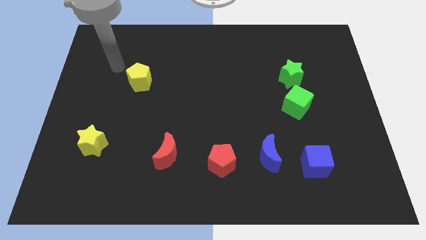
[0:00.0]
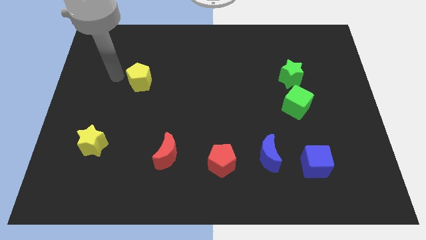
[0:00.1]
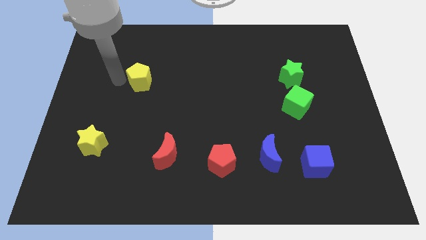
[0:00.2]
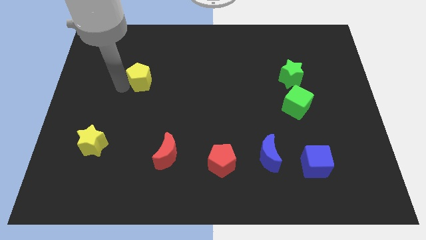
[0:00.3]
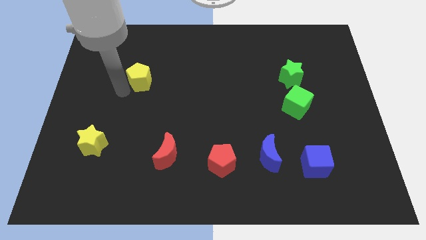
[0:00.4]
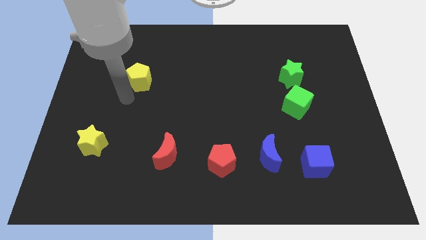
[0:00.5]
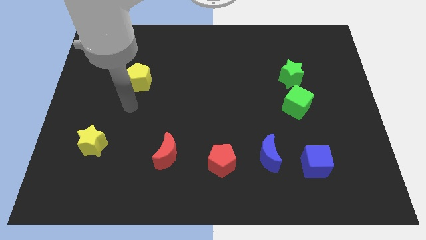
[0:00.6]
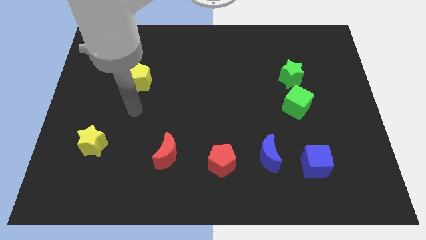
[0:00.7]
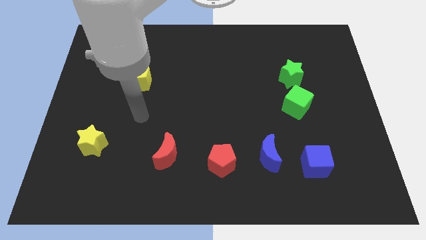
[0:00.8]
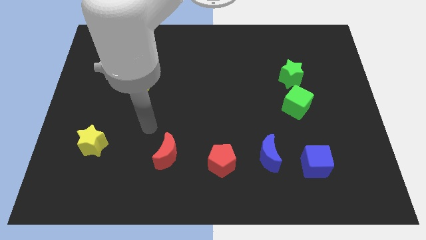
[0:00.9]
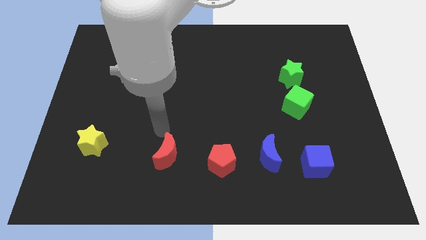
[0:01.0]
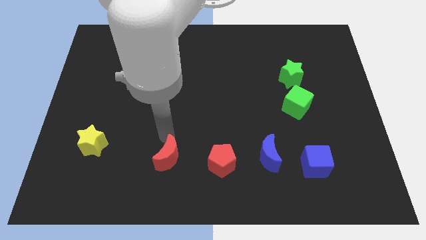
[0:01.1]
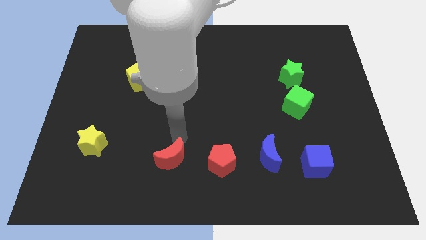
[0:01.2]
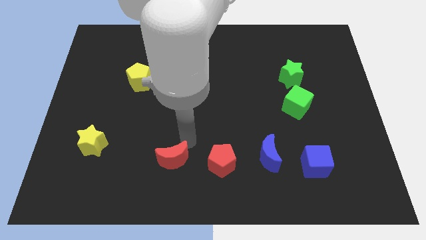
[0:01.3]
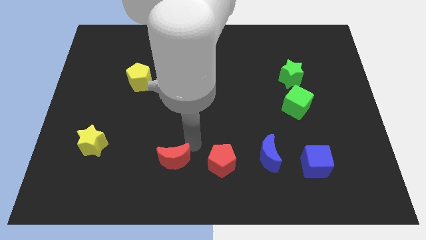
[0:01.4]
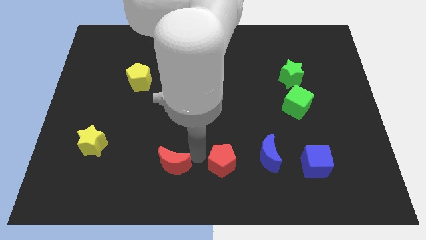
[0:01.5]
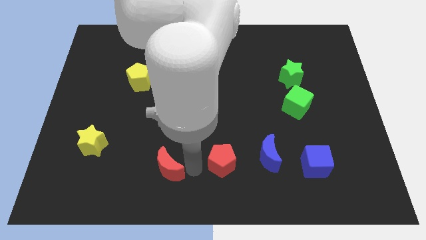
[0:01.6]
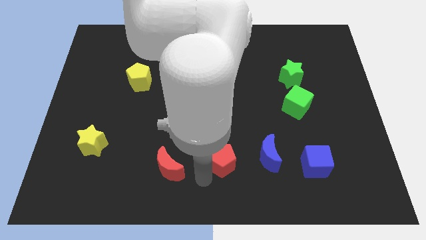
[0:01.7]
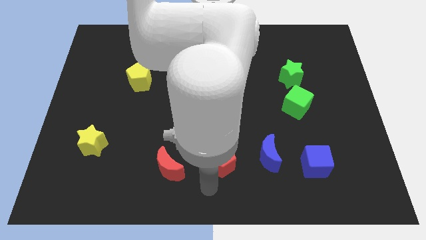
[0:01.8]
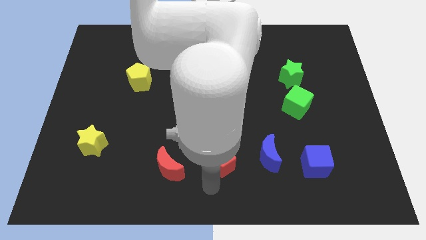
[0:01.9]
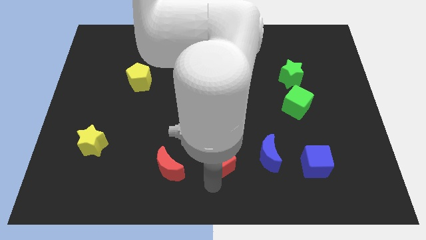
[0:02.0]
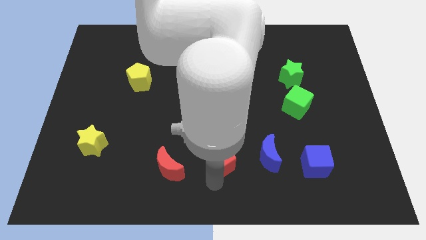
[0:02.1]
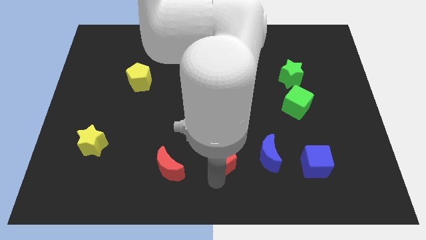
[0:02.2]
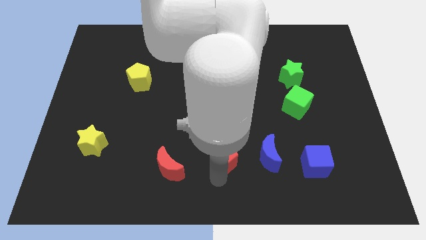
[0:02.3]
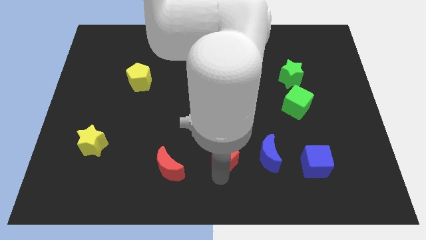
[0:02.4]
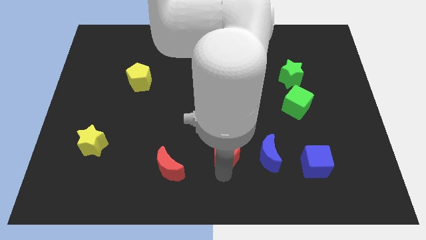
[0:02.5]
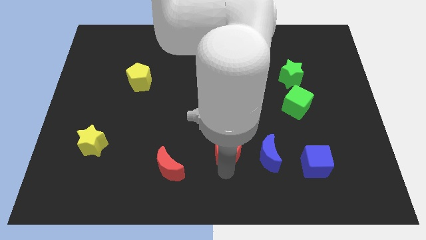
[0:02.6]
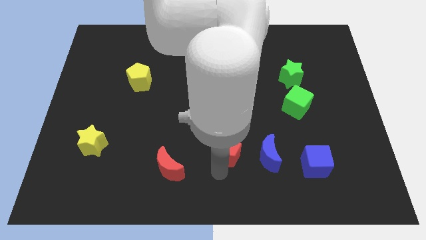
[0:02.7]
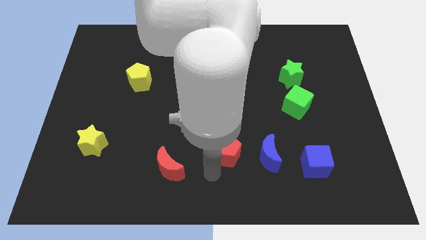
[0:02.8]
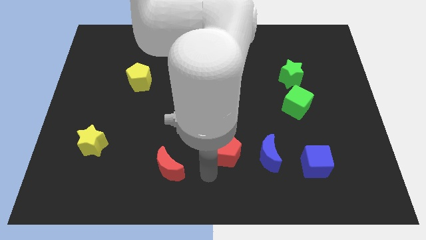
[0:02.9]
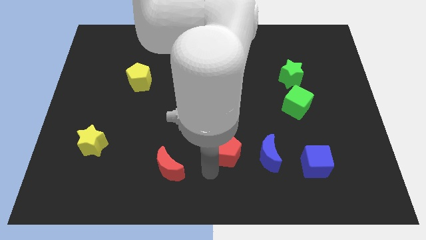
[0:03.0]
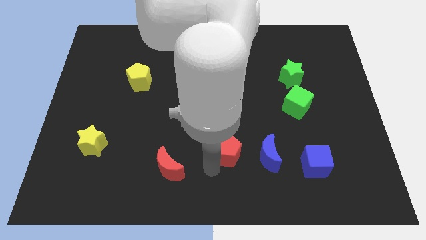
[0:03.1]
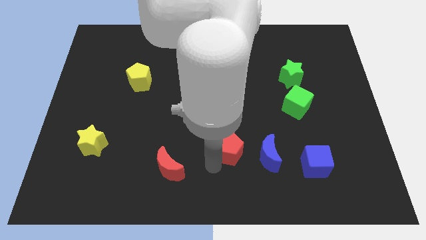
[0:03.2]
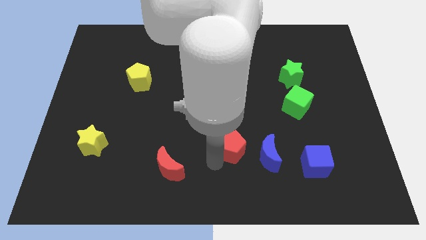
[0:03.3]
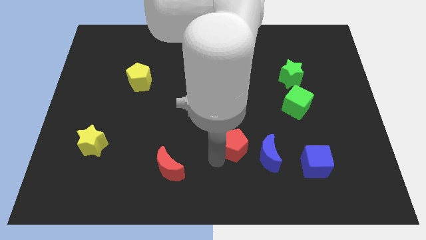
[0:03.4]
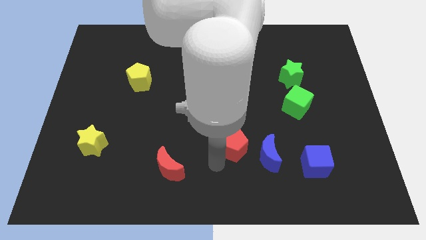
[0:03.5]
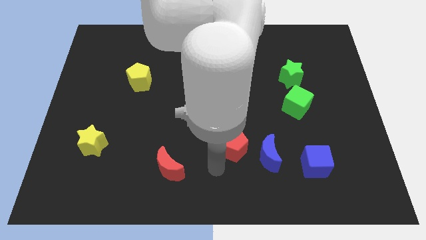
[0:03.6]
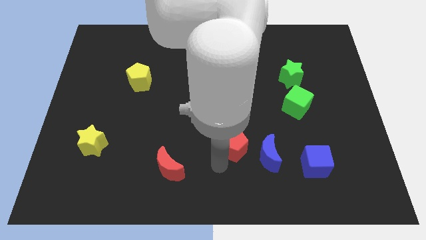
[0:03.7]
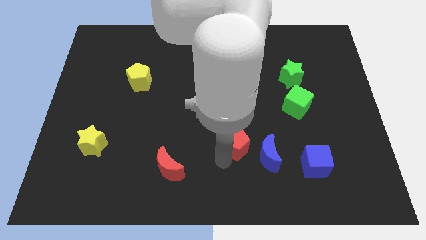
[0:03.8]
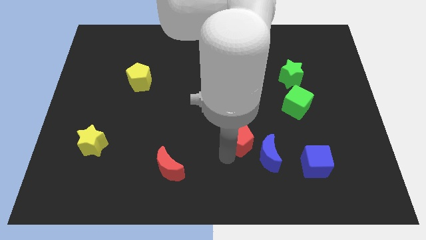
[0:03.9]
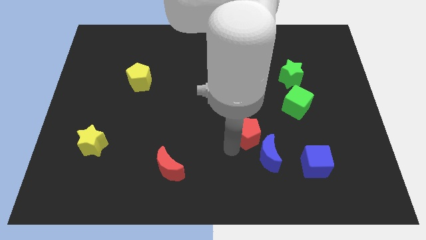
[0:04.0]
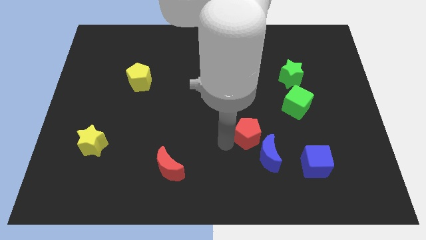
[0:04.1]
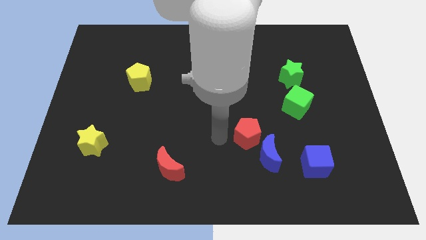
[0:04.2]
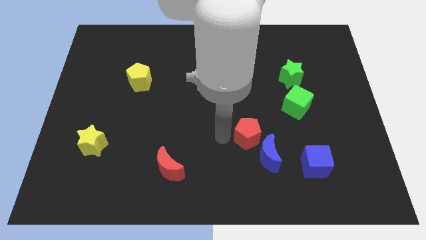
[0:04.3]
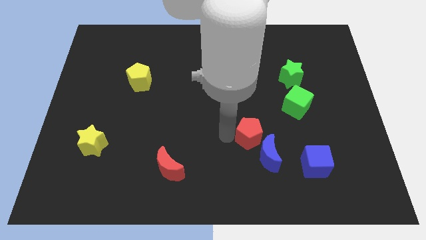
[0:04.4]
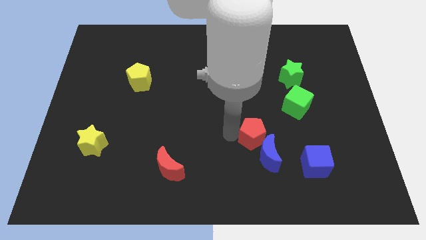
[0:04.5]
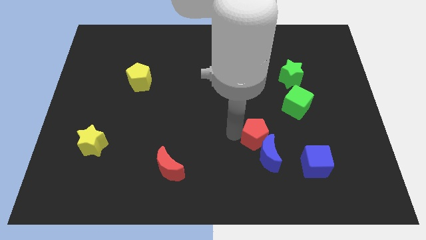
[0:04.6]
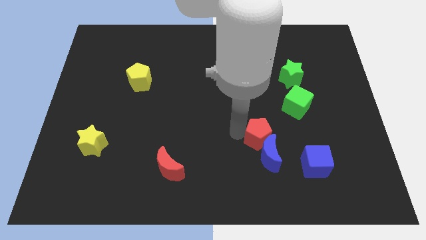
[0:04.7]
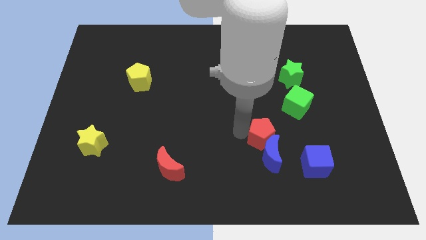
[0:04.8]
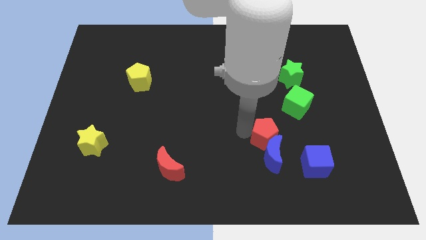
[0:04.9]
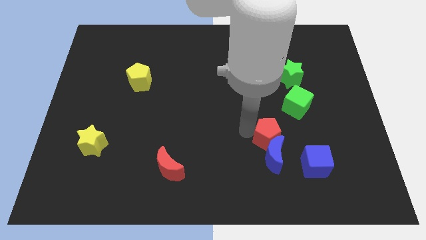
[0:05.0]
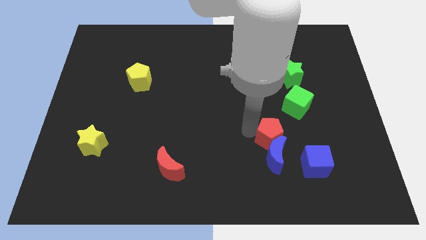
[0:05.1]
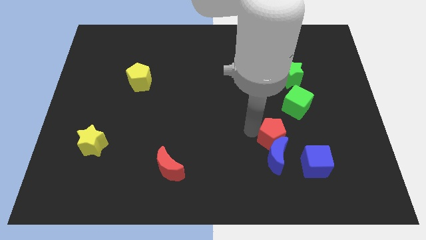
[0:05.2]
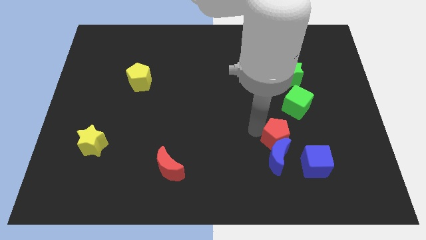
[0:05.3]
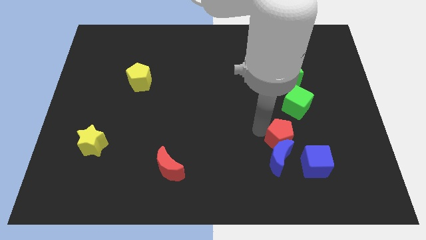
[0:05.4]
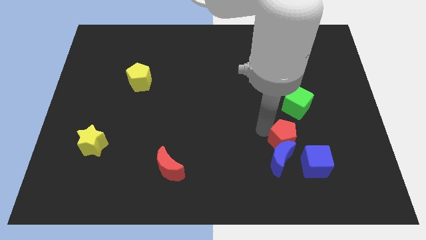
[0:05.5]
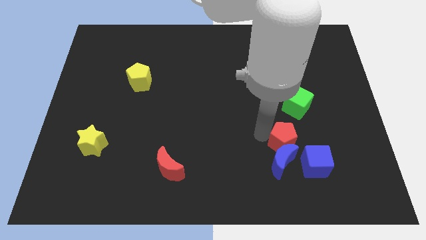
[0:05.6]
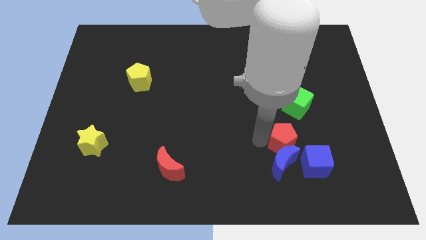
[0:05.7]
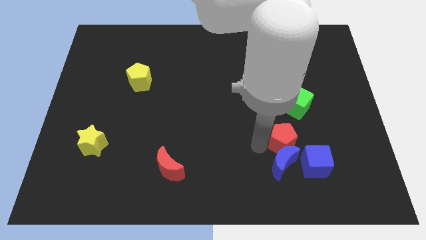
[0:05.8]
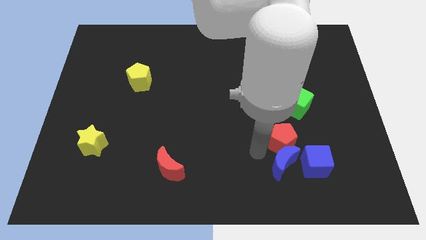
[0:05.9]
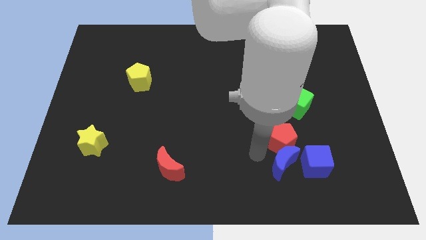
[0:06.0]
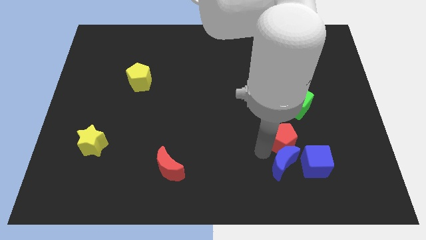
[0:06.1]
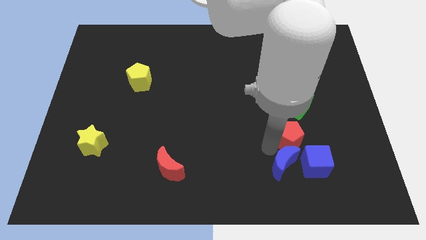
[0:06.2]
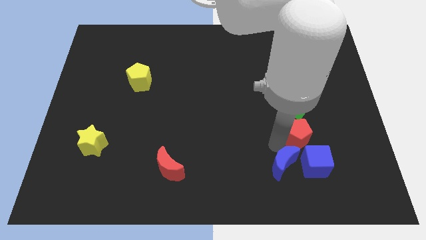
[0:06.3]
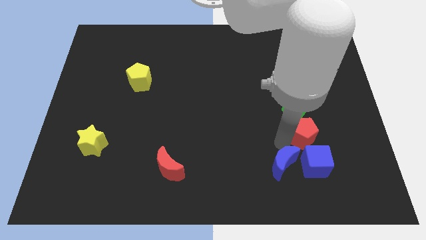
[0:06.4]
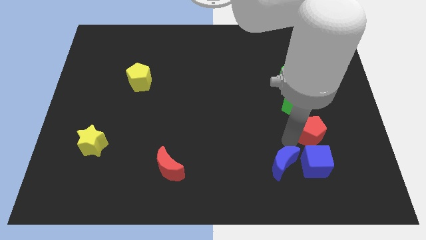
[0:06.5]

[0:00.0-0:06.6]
put the red pentagon diagonally down and to the right of the green cube
